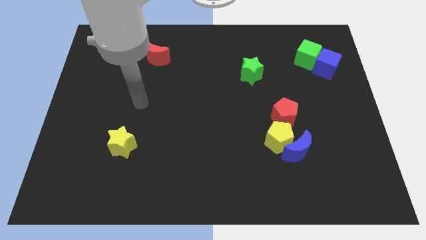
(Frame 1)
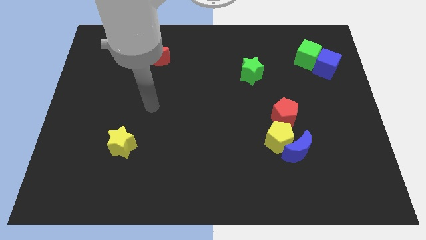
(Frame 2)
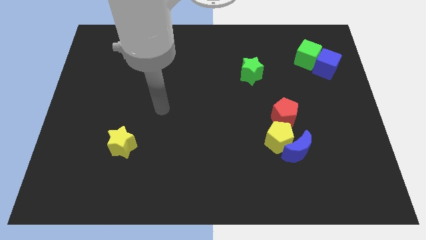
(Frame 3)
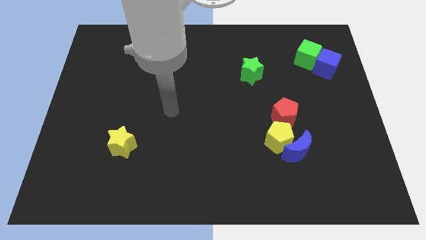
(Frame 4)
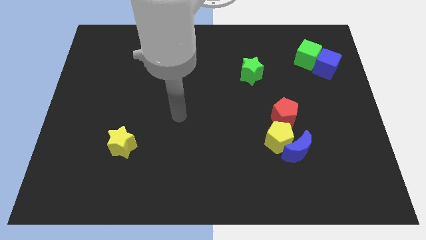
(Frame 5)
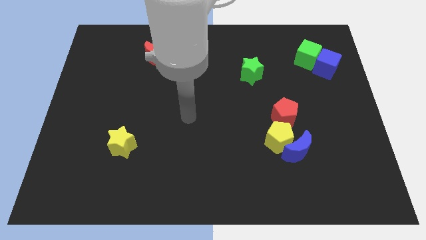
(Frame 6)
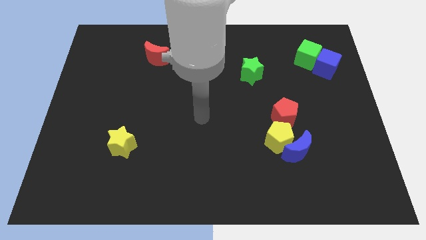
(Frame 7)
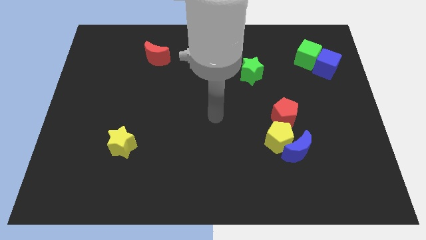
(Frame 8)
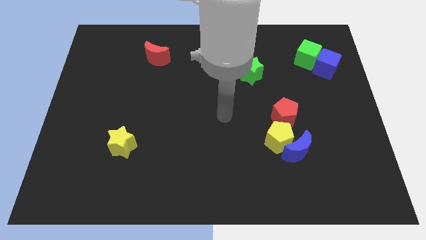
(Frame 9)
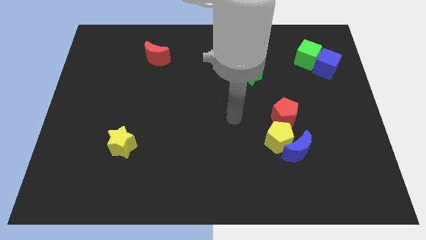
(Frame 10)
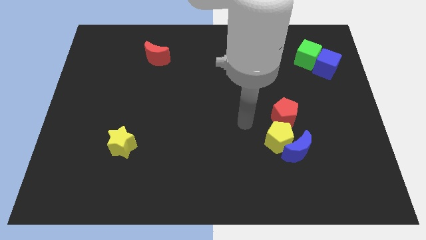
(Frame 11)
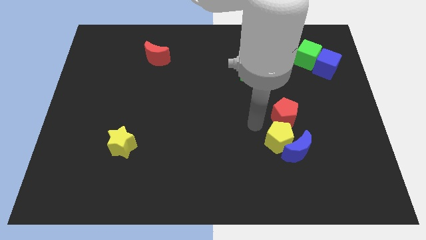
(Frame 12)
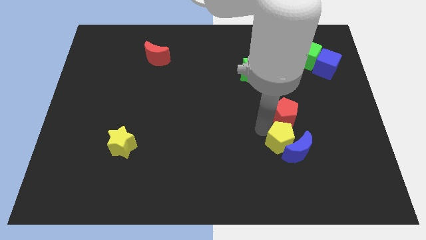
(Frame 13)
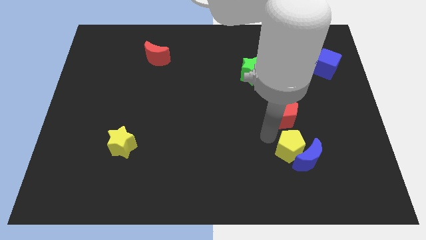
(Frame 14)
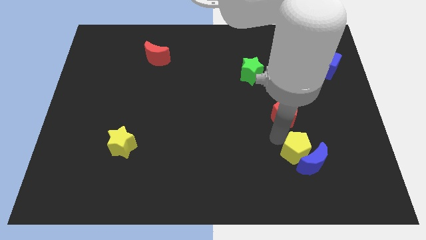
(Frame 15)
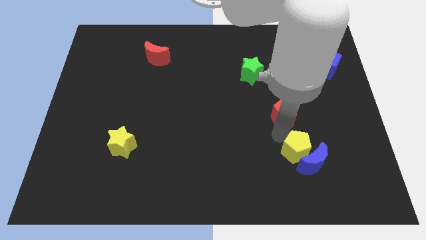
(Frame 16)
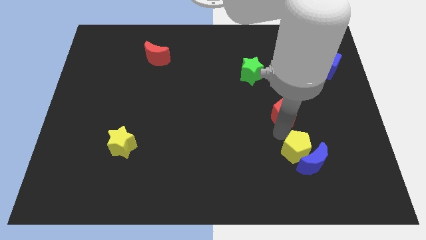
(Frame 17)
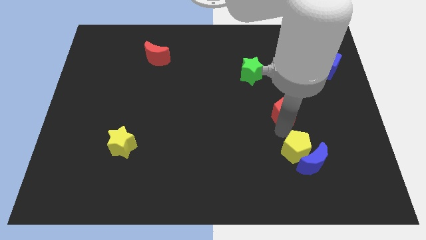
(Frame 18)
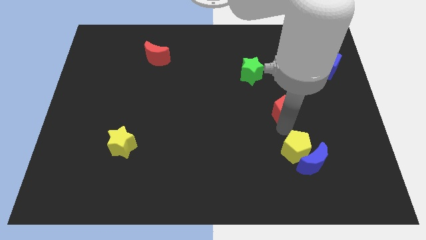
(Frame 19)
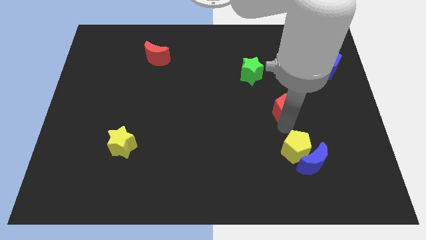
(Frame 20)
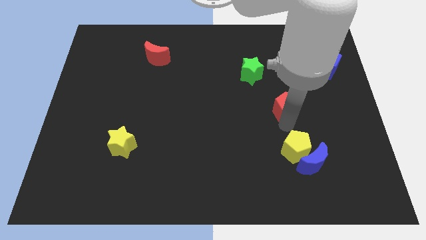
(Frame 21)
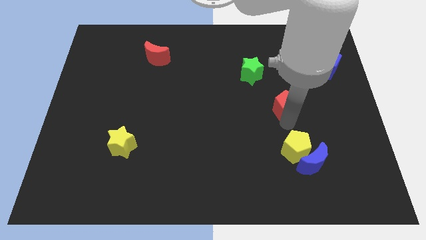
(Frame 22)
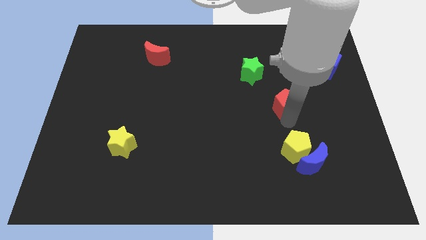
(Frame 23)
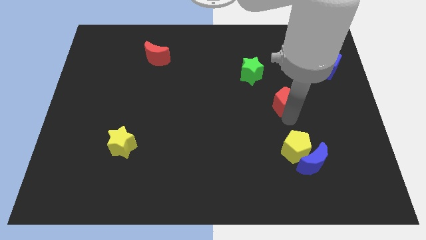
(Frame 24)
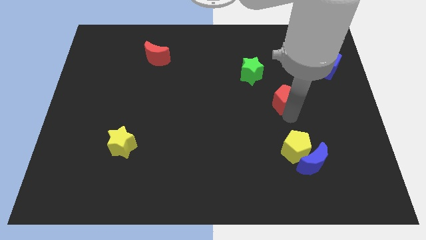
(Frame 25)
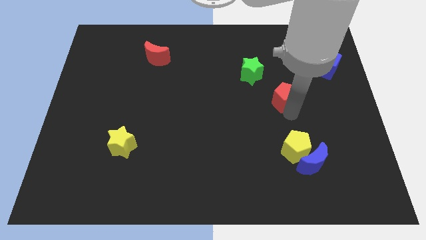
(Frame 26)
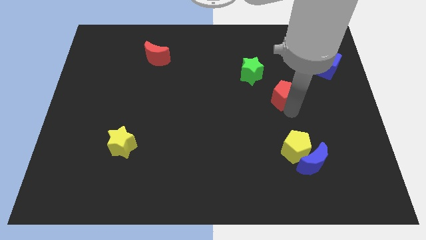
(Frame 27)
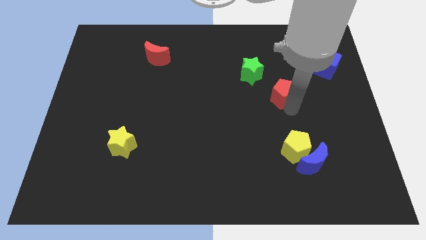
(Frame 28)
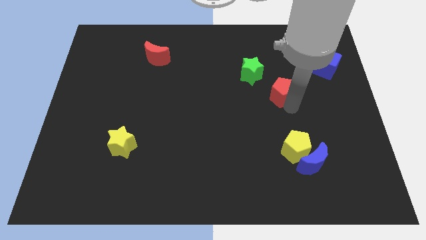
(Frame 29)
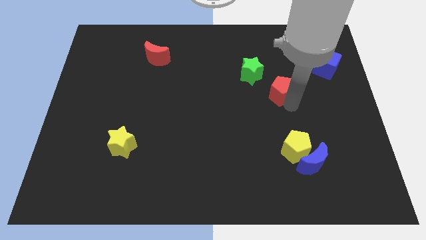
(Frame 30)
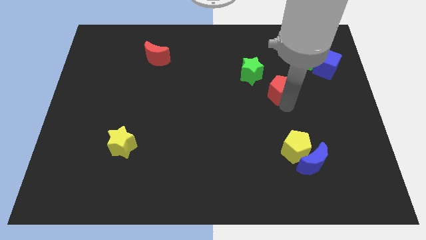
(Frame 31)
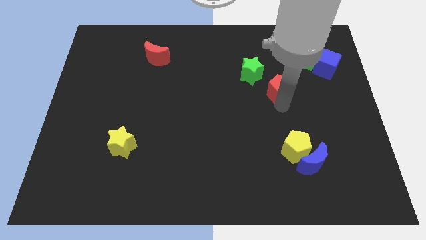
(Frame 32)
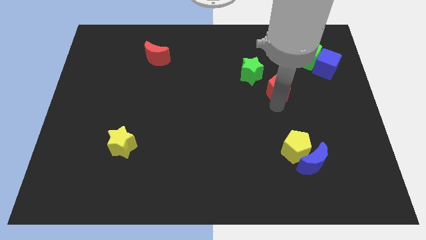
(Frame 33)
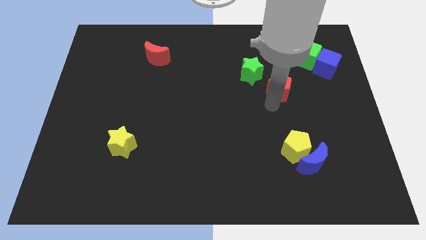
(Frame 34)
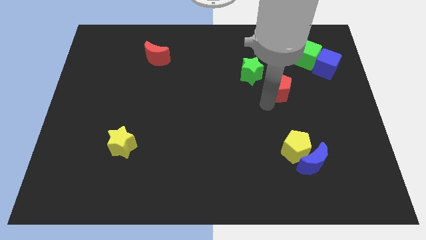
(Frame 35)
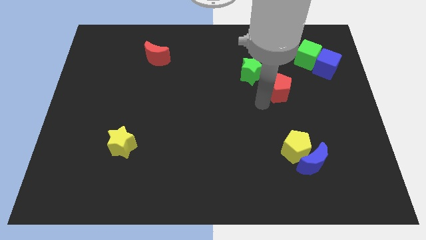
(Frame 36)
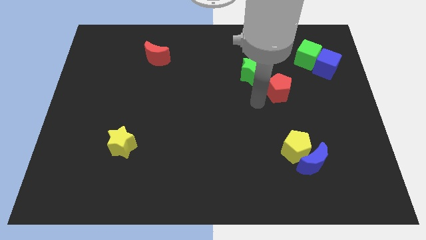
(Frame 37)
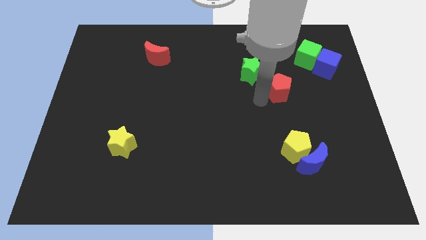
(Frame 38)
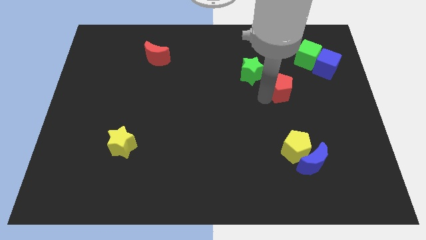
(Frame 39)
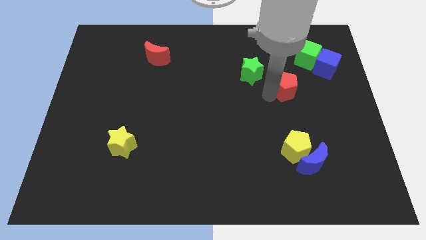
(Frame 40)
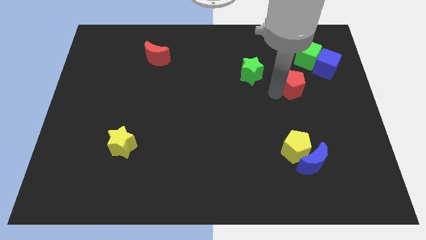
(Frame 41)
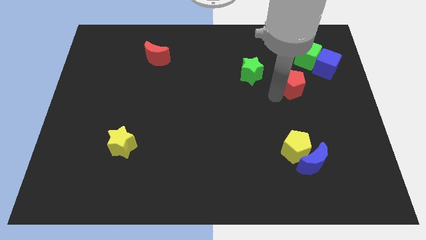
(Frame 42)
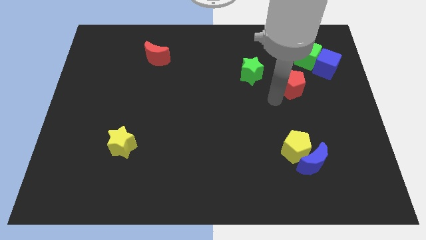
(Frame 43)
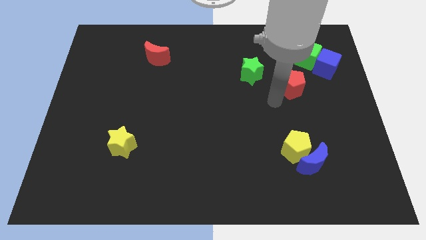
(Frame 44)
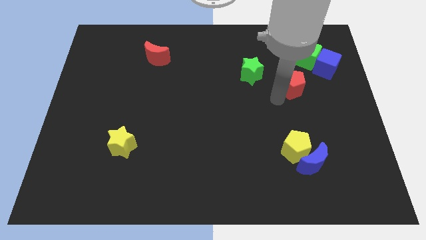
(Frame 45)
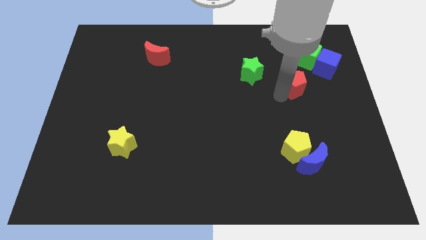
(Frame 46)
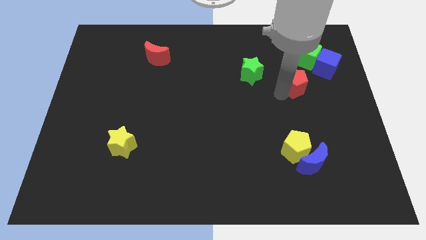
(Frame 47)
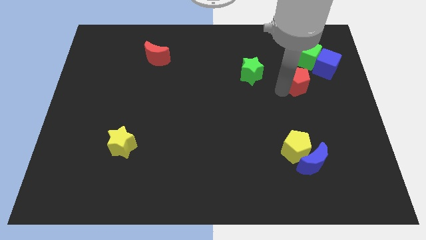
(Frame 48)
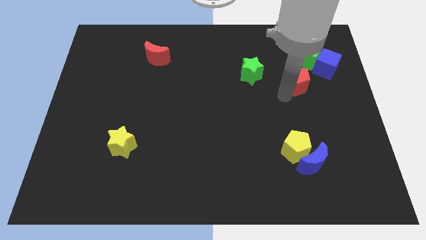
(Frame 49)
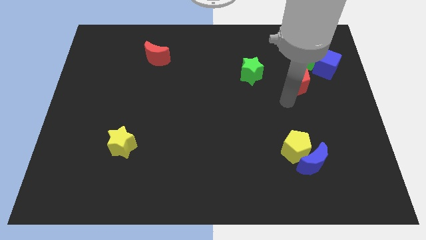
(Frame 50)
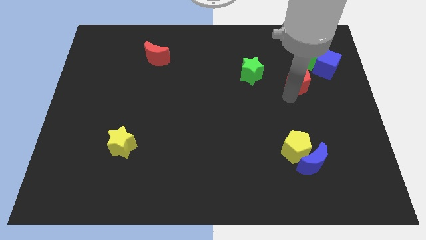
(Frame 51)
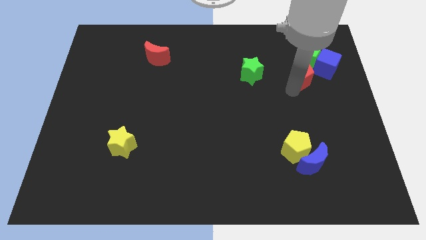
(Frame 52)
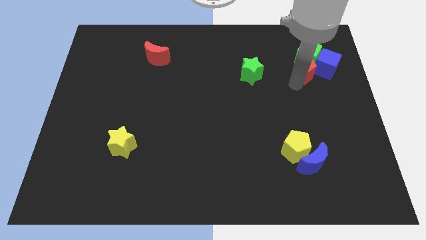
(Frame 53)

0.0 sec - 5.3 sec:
push the red pentagon to the green cube

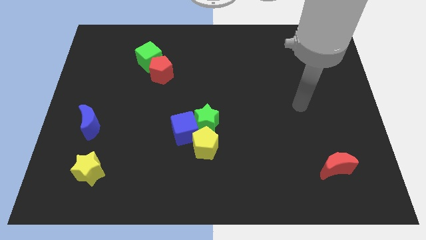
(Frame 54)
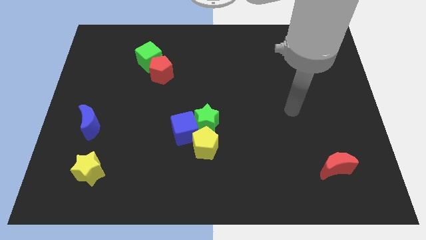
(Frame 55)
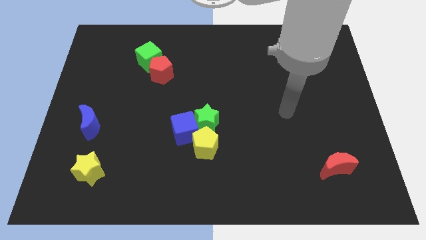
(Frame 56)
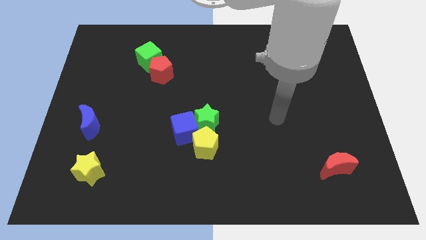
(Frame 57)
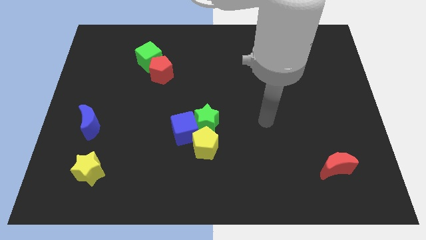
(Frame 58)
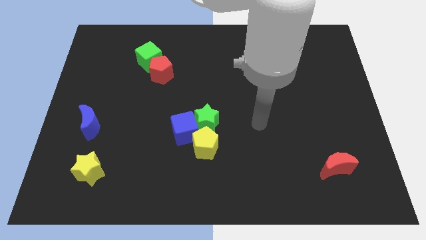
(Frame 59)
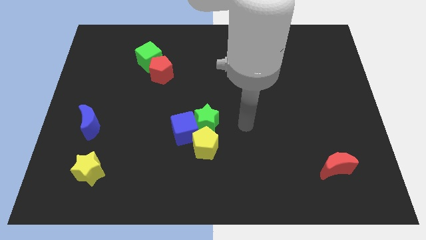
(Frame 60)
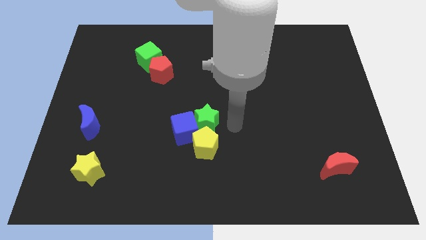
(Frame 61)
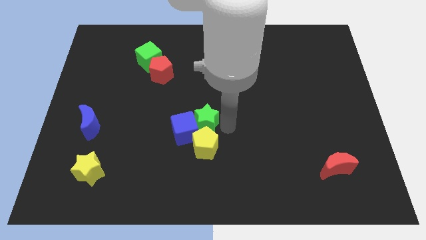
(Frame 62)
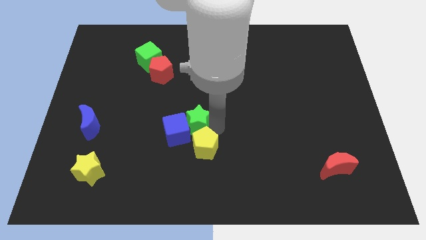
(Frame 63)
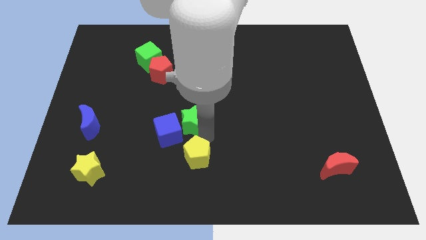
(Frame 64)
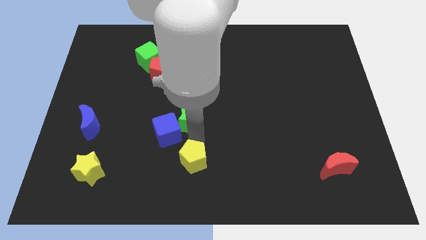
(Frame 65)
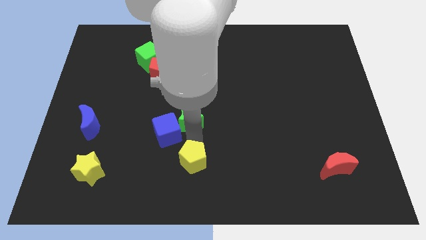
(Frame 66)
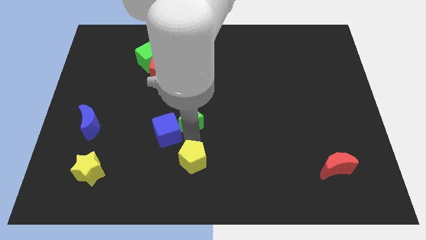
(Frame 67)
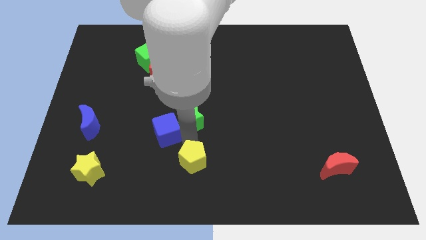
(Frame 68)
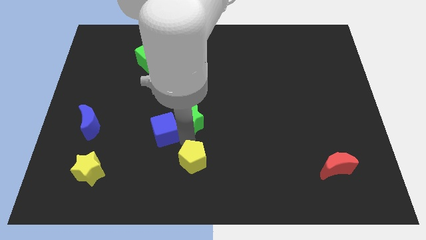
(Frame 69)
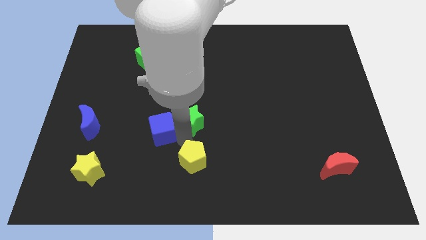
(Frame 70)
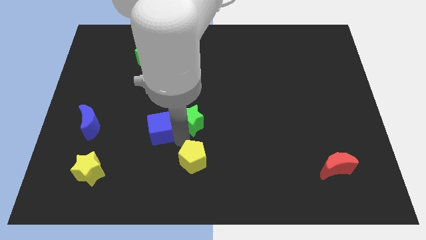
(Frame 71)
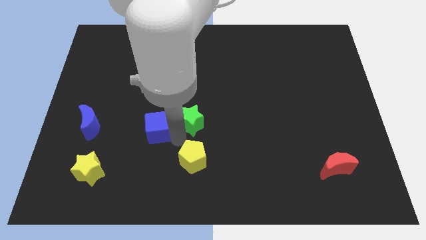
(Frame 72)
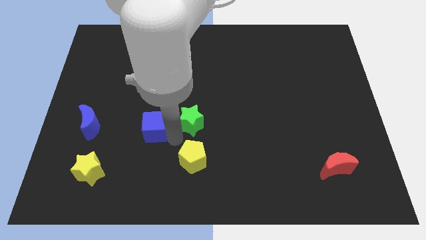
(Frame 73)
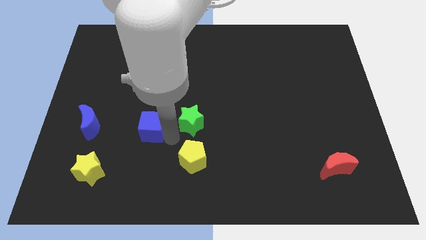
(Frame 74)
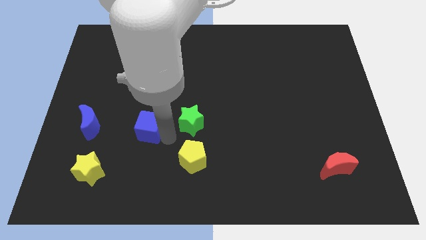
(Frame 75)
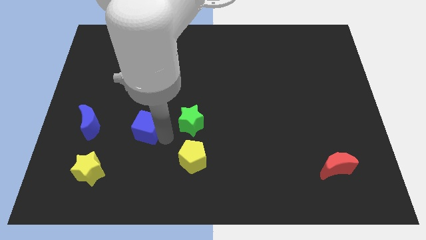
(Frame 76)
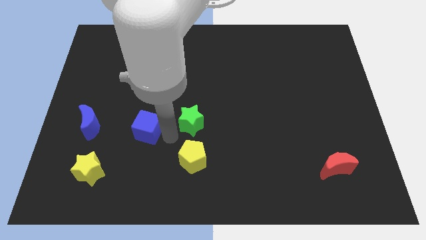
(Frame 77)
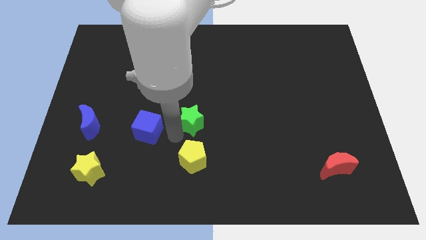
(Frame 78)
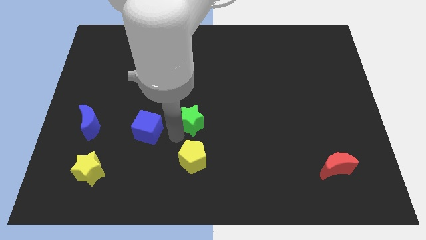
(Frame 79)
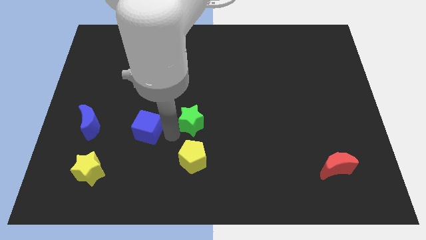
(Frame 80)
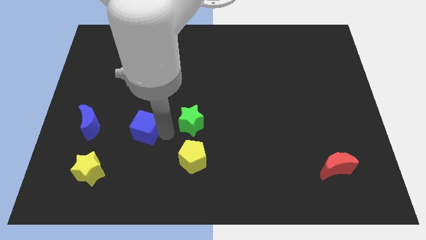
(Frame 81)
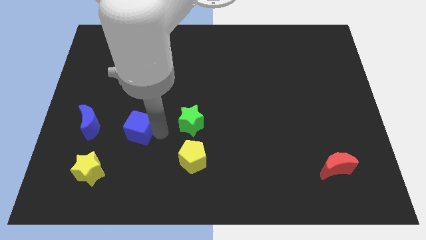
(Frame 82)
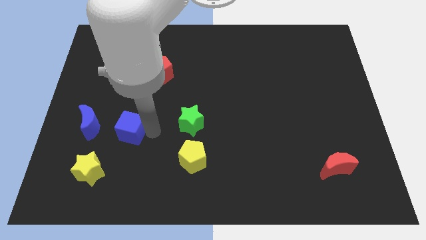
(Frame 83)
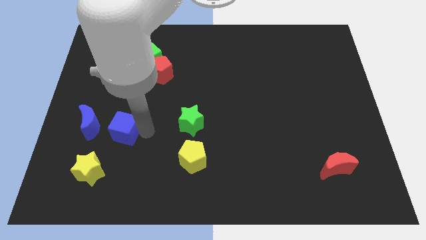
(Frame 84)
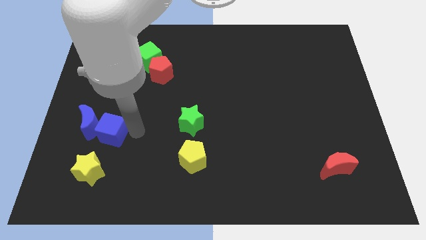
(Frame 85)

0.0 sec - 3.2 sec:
push the blue cube towards the blue moon
